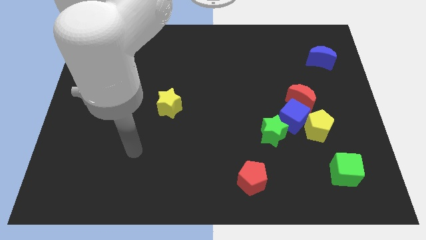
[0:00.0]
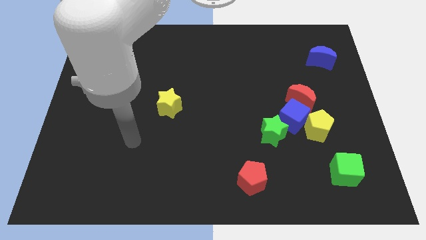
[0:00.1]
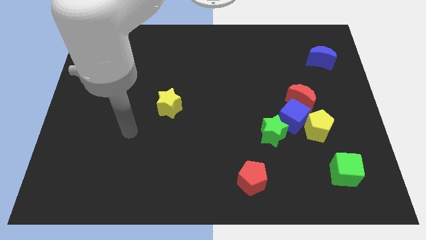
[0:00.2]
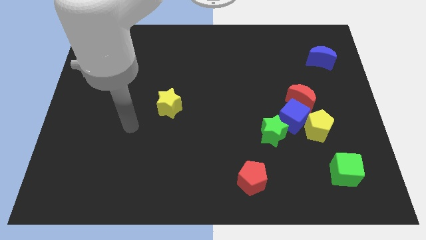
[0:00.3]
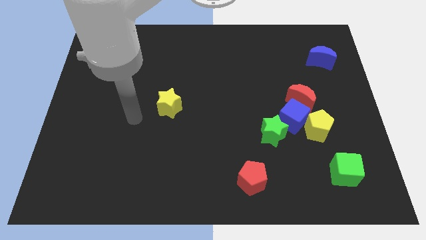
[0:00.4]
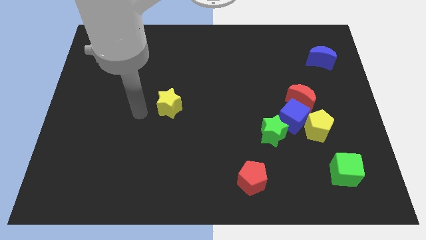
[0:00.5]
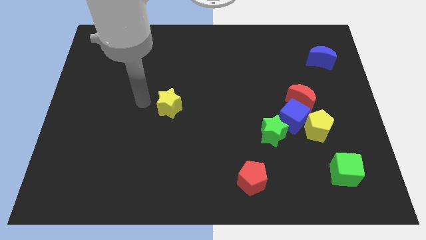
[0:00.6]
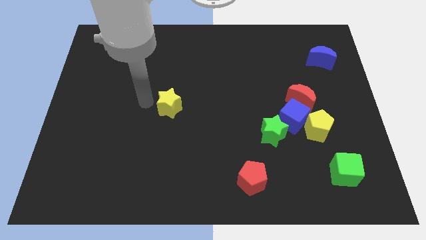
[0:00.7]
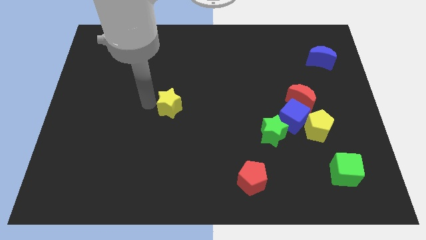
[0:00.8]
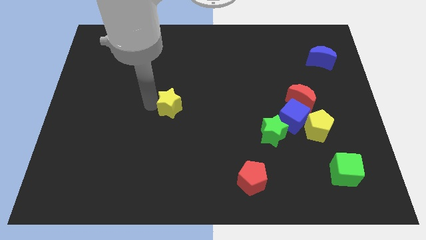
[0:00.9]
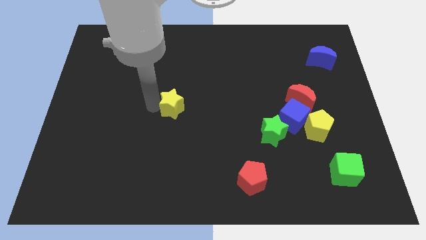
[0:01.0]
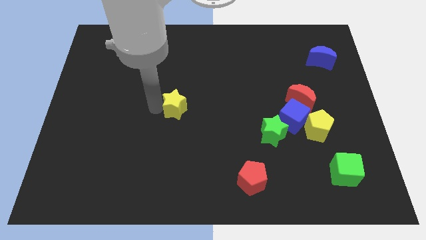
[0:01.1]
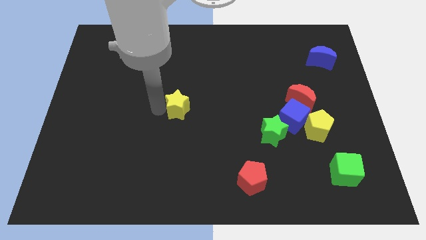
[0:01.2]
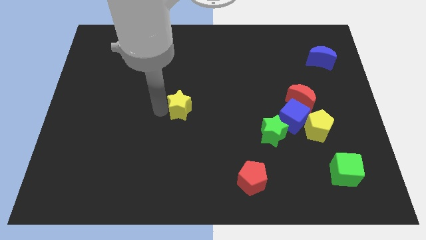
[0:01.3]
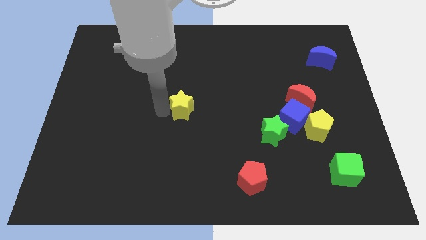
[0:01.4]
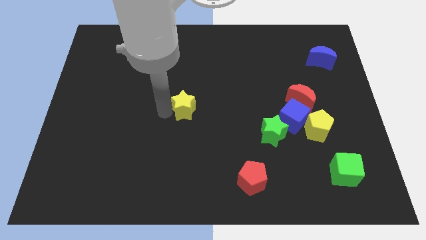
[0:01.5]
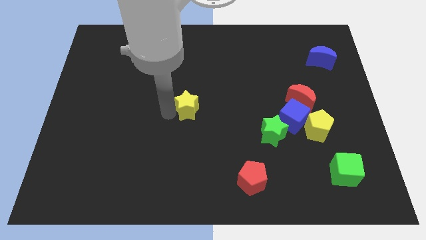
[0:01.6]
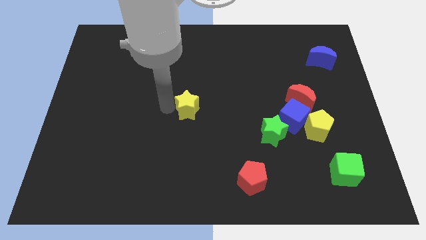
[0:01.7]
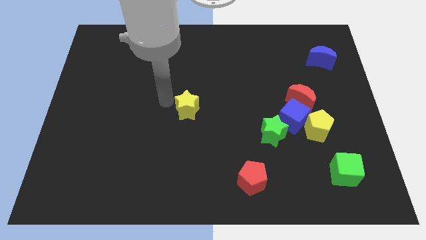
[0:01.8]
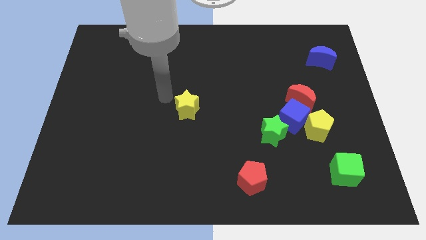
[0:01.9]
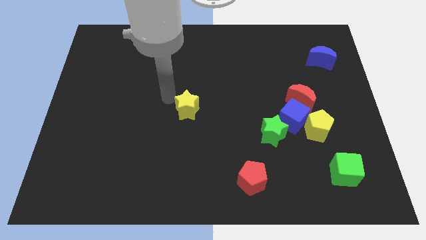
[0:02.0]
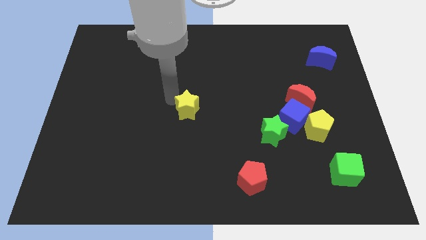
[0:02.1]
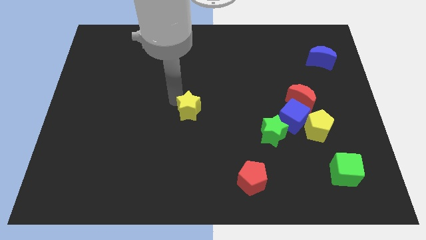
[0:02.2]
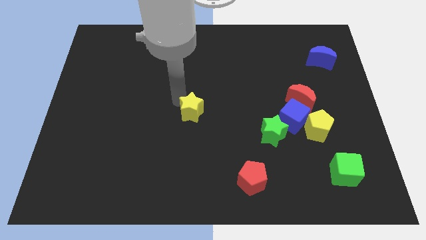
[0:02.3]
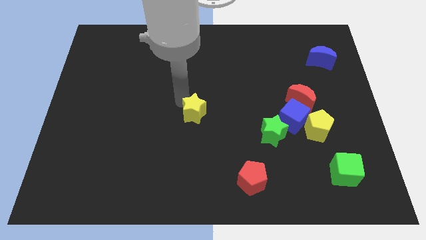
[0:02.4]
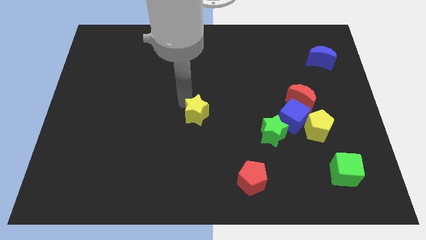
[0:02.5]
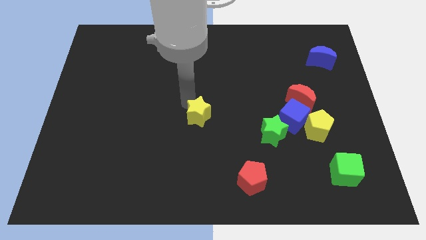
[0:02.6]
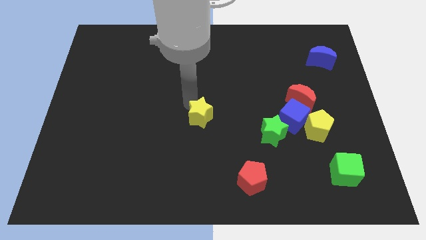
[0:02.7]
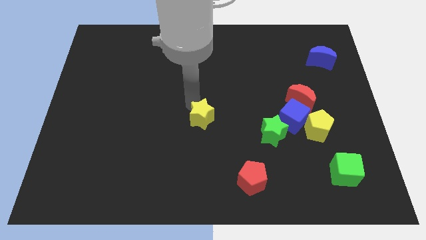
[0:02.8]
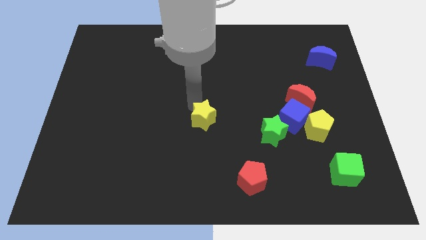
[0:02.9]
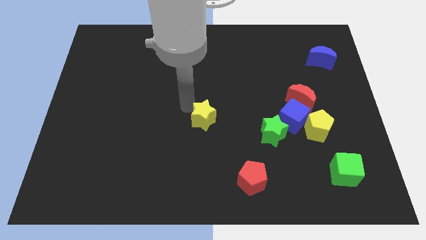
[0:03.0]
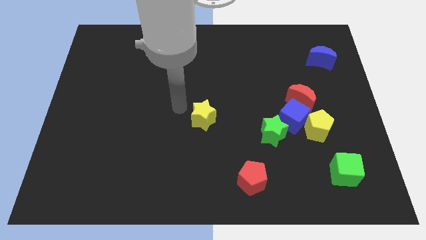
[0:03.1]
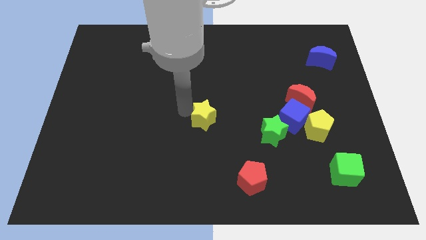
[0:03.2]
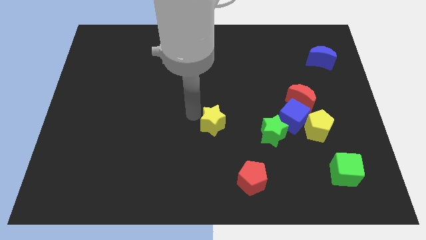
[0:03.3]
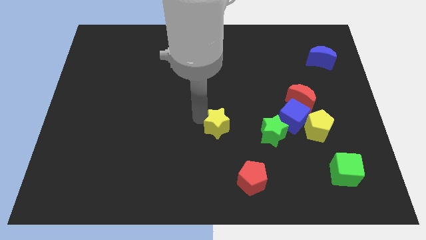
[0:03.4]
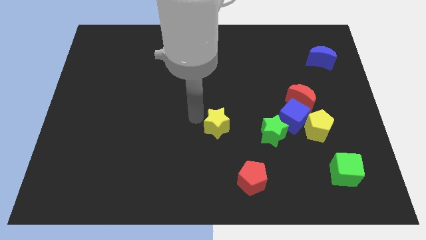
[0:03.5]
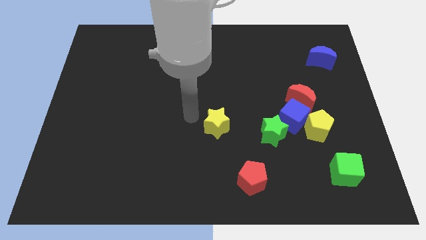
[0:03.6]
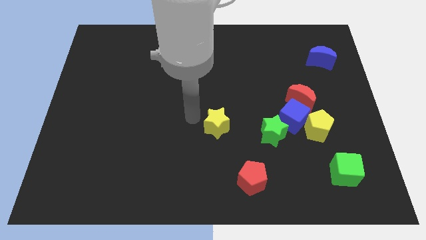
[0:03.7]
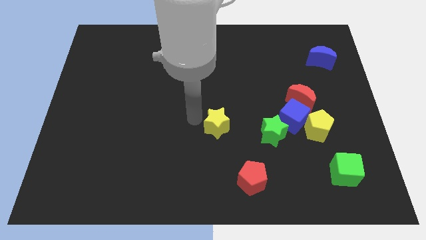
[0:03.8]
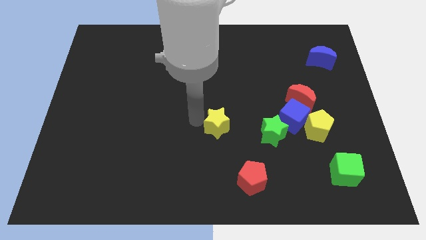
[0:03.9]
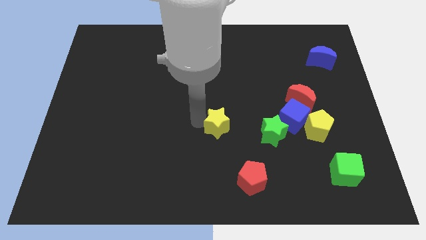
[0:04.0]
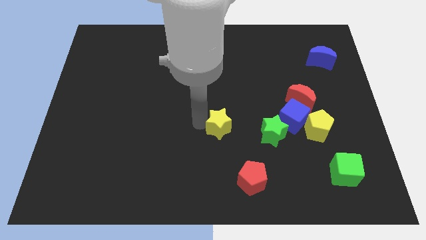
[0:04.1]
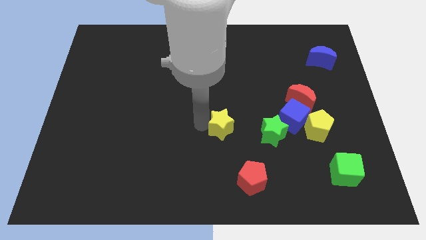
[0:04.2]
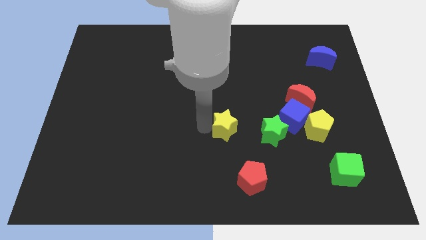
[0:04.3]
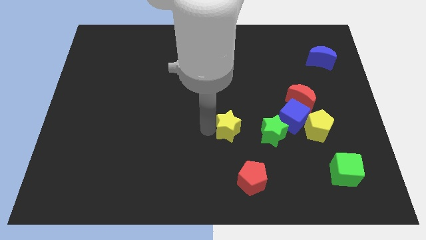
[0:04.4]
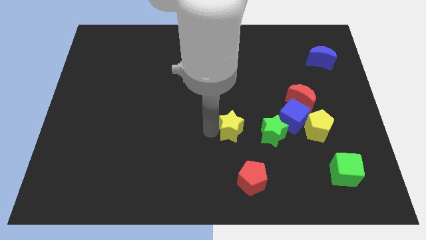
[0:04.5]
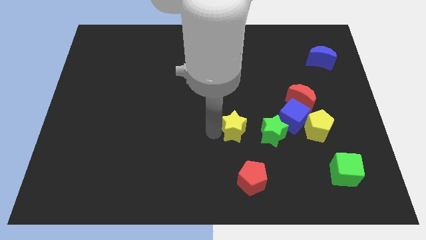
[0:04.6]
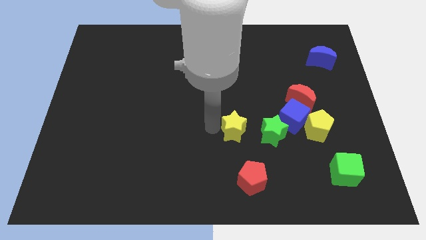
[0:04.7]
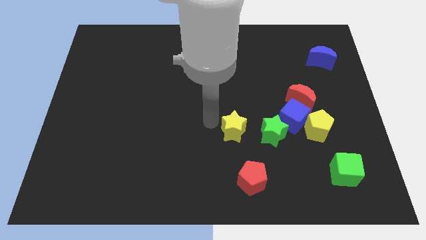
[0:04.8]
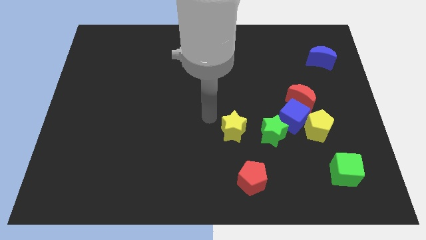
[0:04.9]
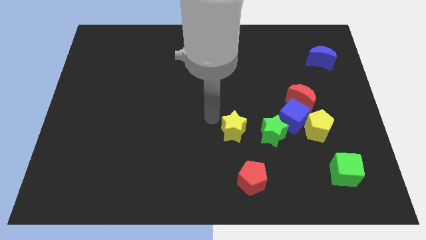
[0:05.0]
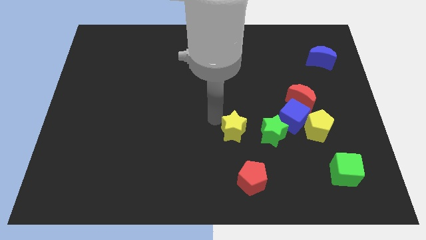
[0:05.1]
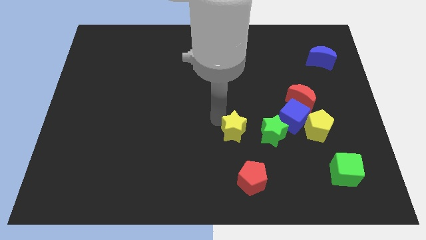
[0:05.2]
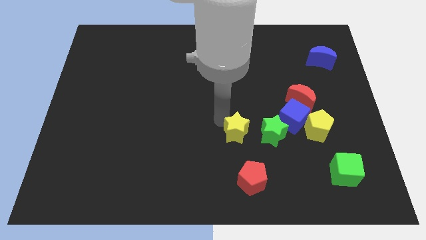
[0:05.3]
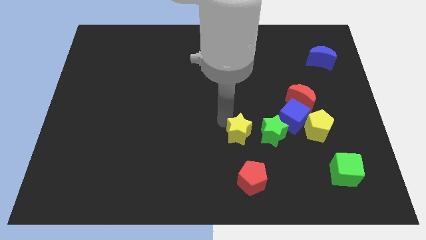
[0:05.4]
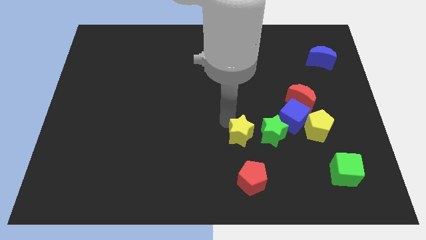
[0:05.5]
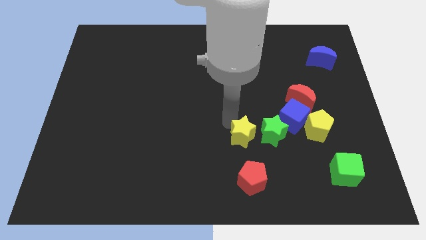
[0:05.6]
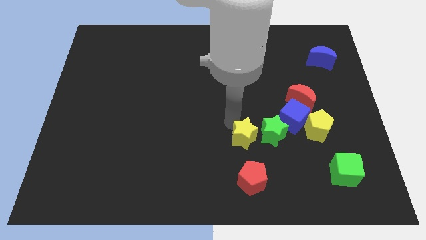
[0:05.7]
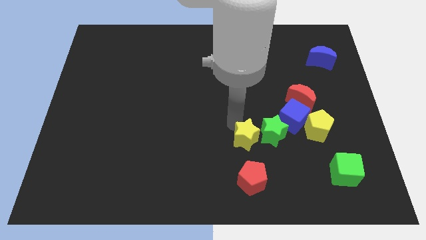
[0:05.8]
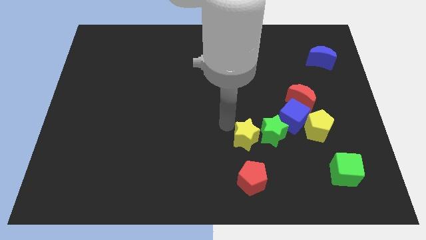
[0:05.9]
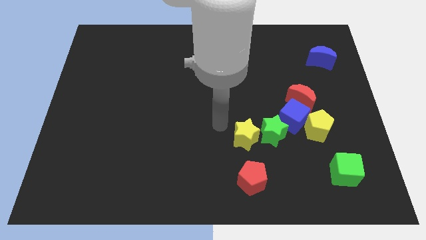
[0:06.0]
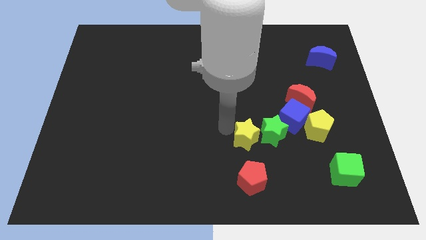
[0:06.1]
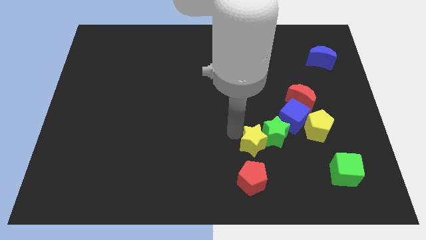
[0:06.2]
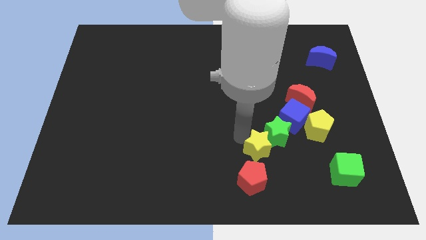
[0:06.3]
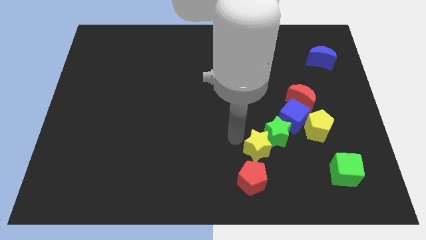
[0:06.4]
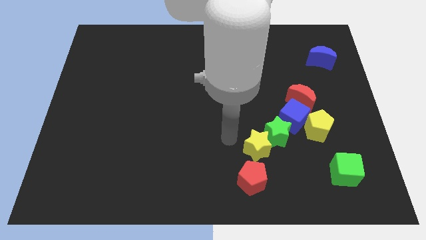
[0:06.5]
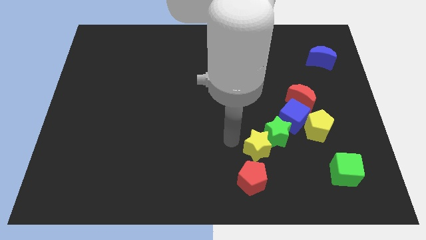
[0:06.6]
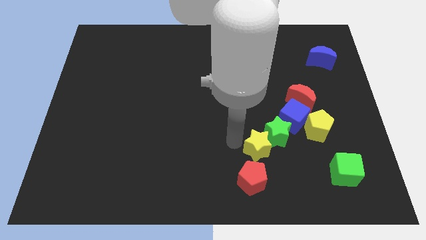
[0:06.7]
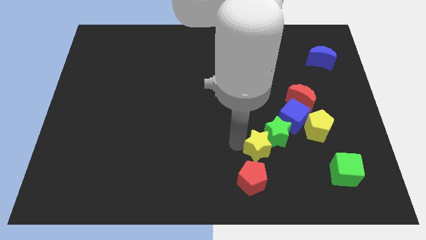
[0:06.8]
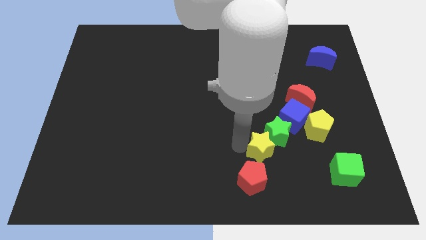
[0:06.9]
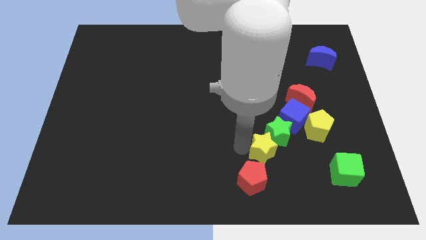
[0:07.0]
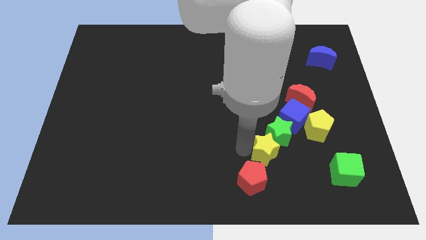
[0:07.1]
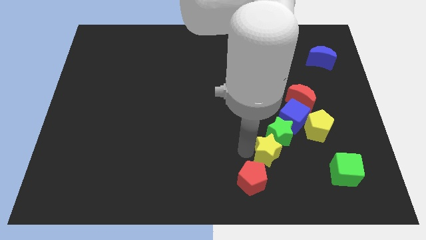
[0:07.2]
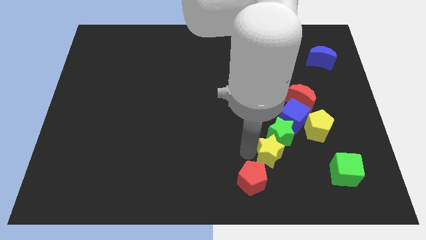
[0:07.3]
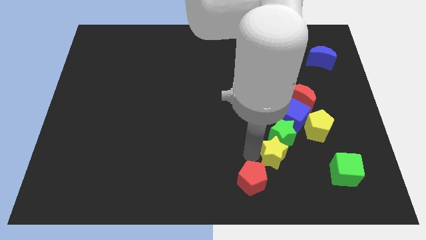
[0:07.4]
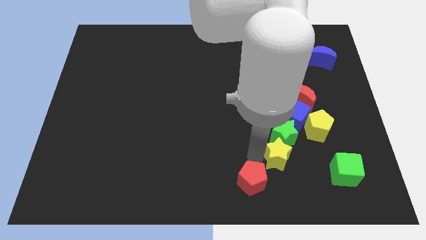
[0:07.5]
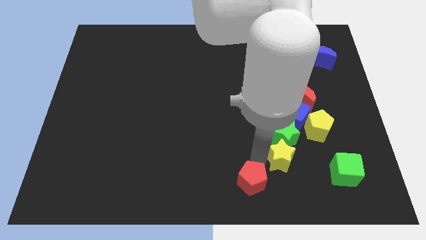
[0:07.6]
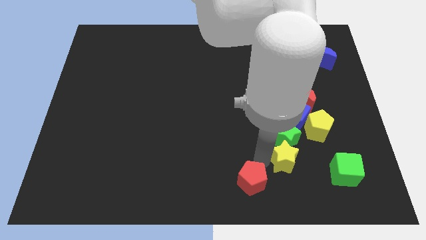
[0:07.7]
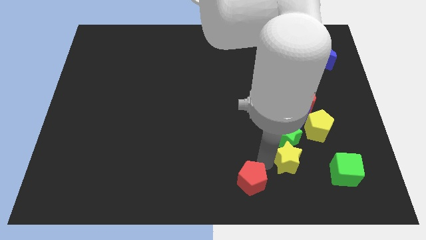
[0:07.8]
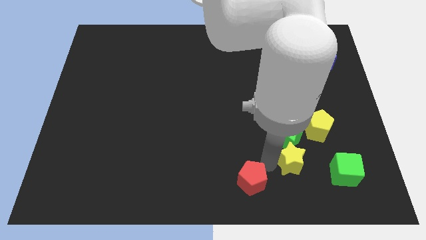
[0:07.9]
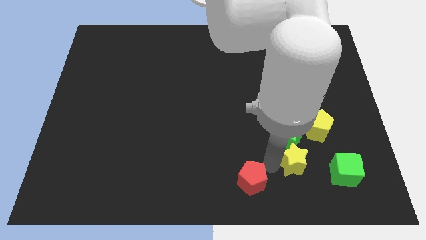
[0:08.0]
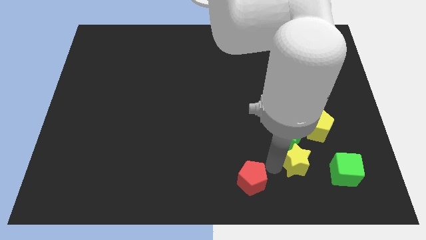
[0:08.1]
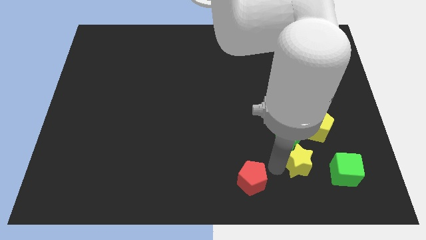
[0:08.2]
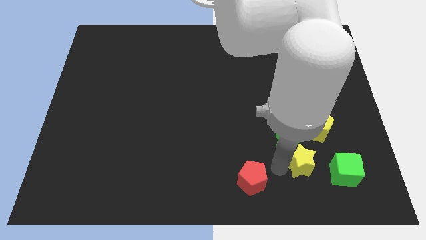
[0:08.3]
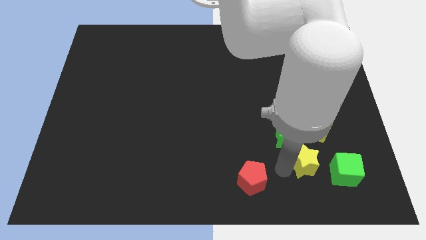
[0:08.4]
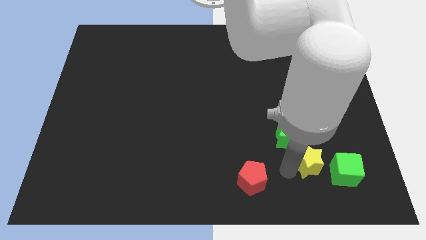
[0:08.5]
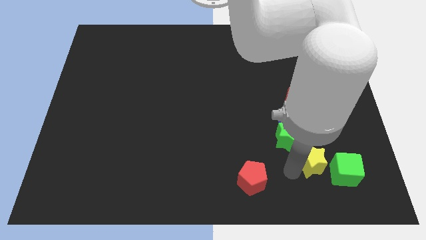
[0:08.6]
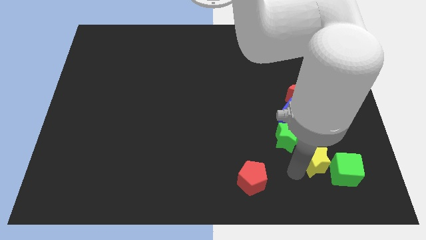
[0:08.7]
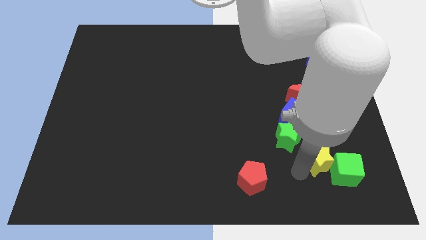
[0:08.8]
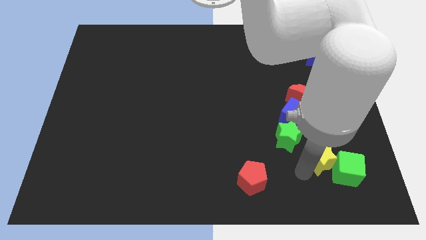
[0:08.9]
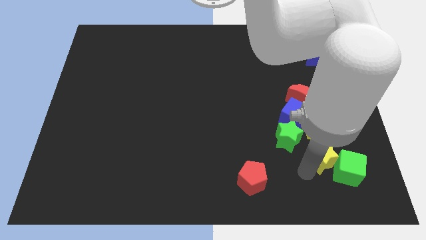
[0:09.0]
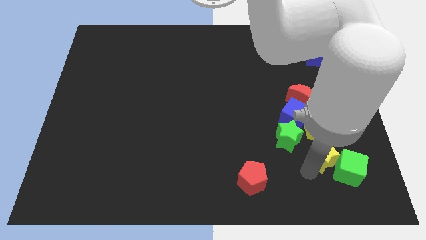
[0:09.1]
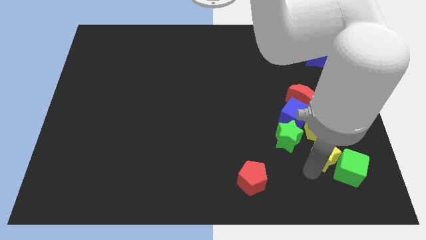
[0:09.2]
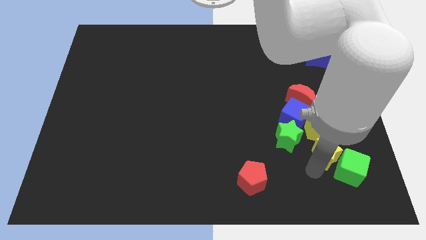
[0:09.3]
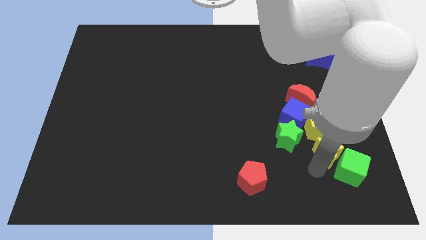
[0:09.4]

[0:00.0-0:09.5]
move the yellow star above the green cube
